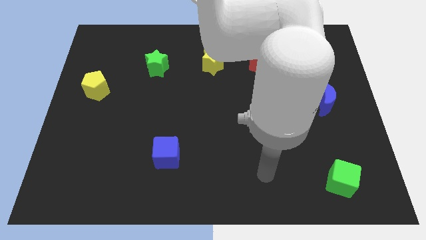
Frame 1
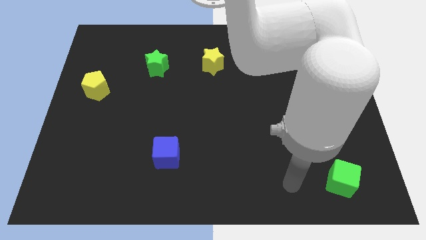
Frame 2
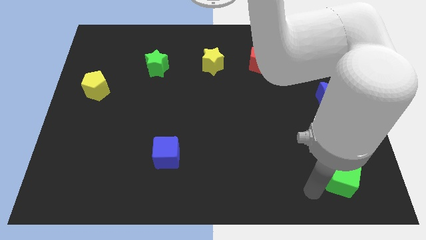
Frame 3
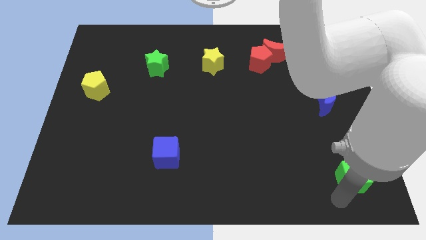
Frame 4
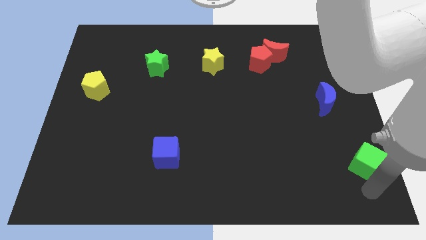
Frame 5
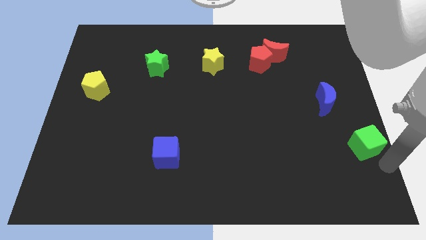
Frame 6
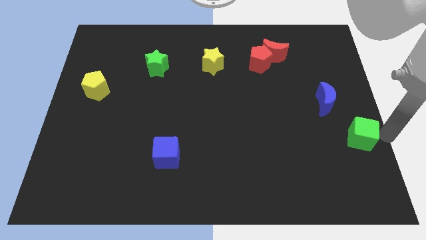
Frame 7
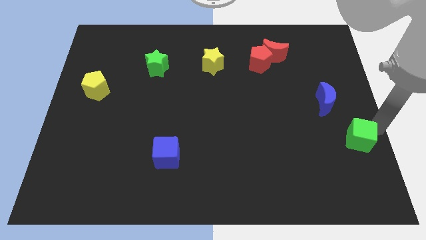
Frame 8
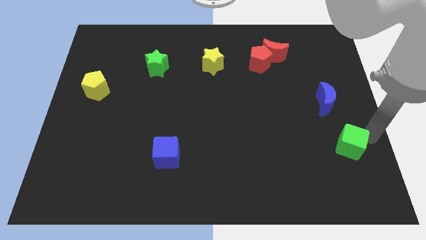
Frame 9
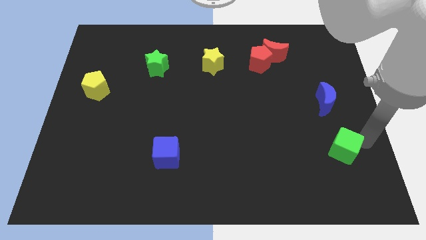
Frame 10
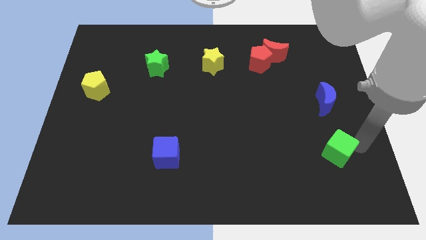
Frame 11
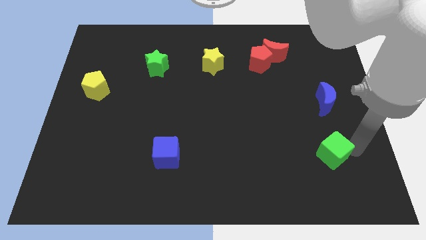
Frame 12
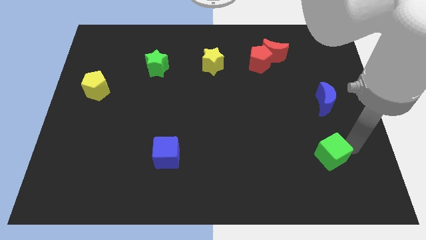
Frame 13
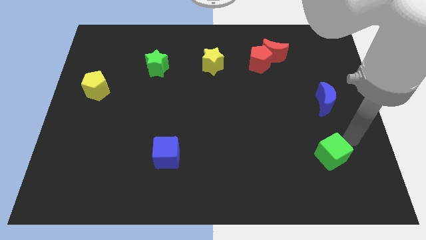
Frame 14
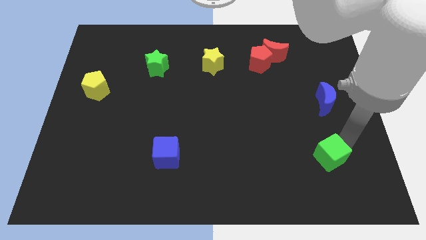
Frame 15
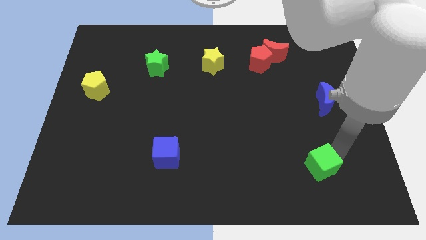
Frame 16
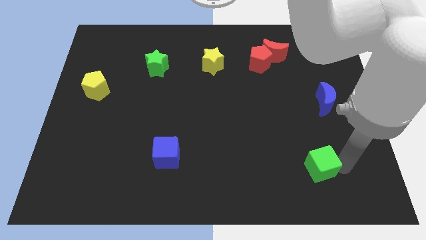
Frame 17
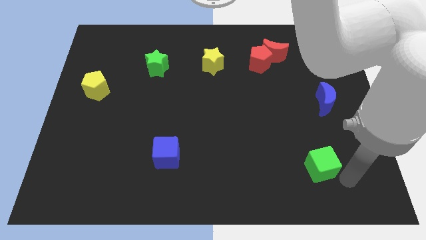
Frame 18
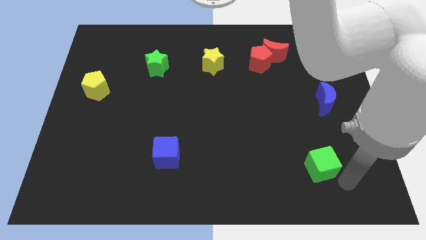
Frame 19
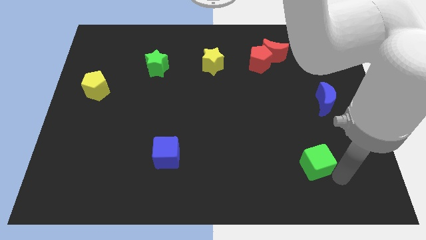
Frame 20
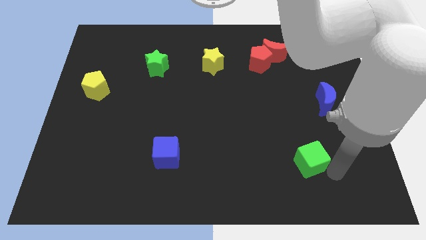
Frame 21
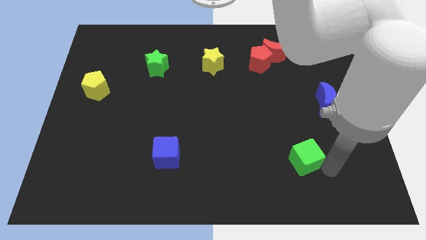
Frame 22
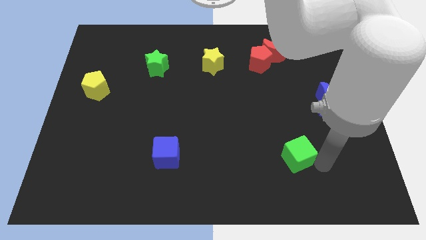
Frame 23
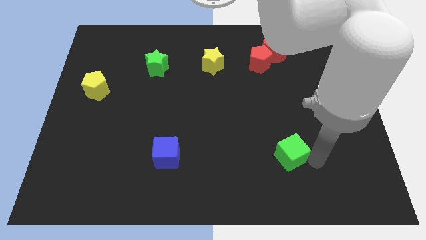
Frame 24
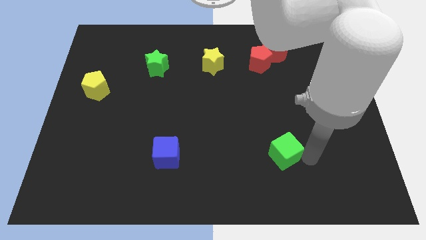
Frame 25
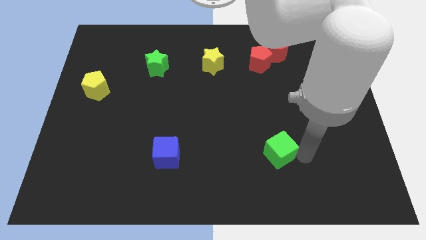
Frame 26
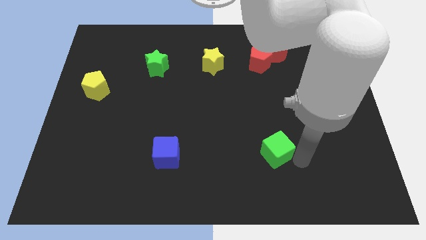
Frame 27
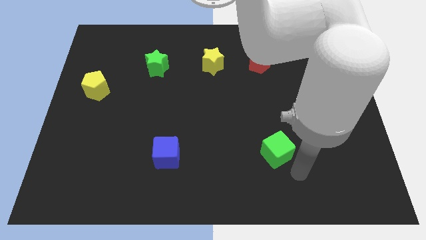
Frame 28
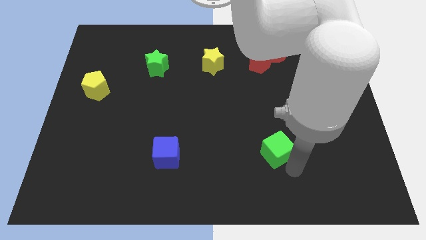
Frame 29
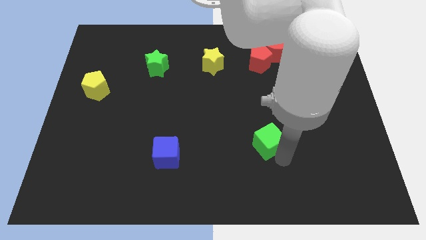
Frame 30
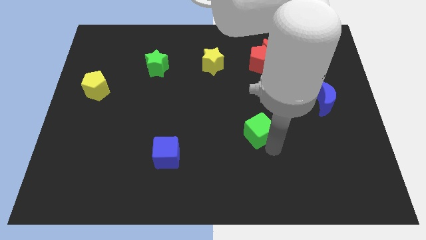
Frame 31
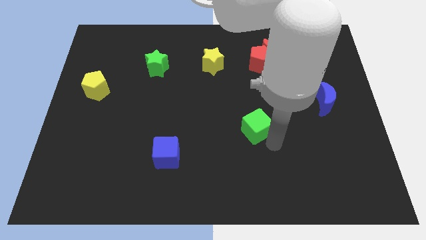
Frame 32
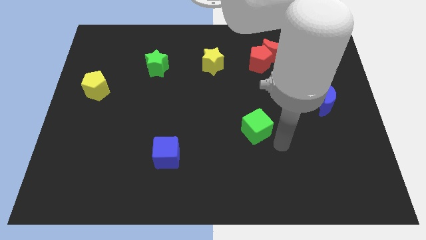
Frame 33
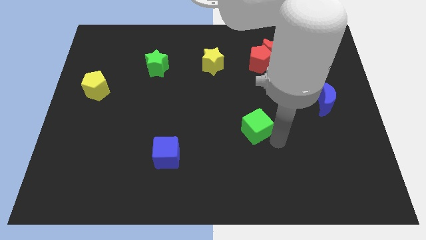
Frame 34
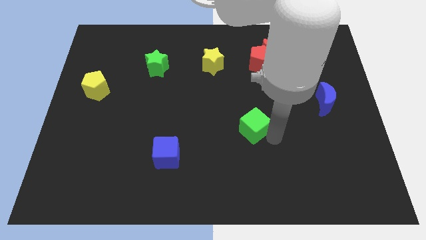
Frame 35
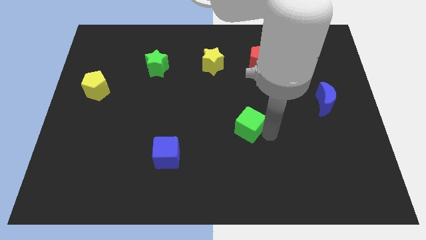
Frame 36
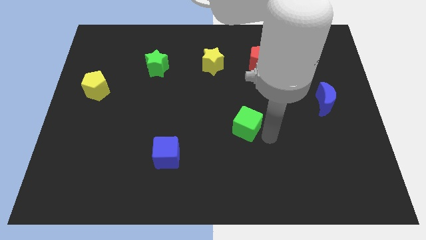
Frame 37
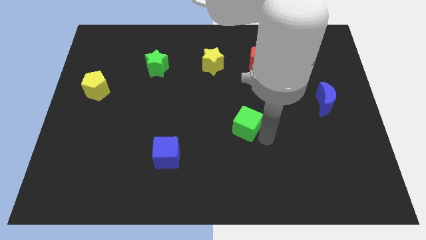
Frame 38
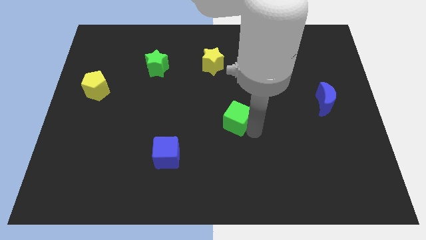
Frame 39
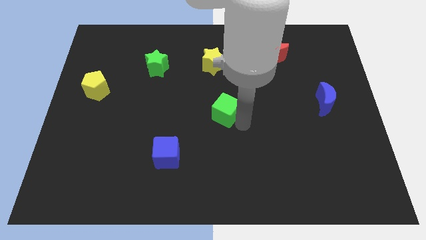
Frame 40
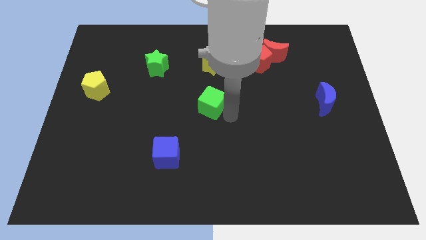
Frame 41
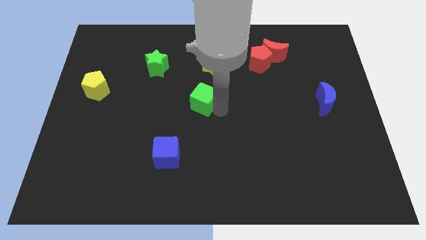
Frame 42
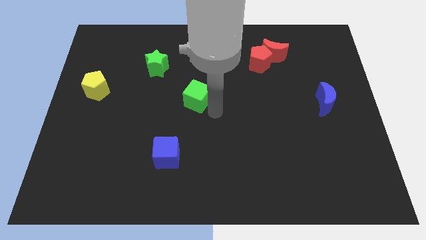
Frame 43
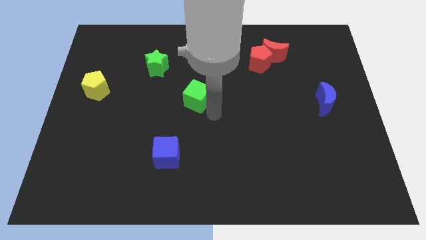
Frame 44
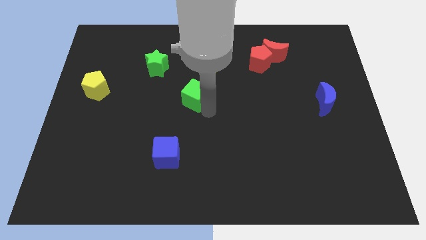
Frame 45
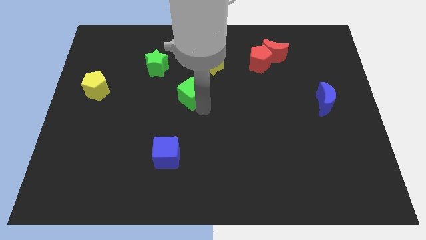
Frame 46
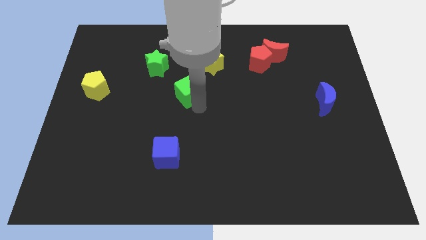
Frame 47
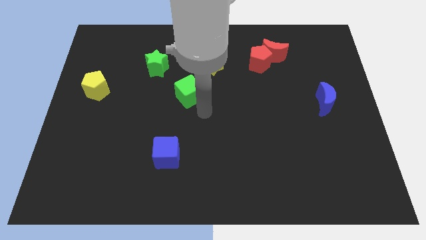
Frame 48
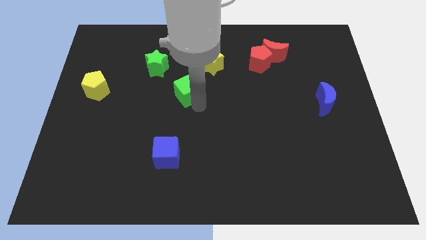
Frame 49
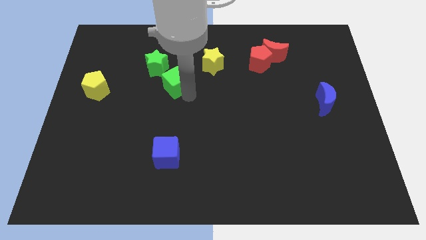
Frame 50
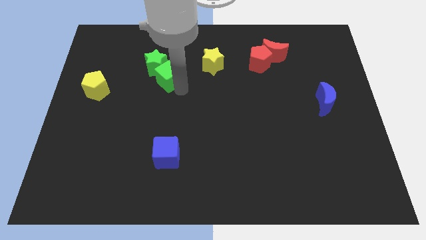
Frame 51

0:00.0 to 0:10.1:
slide the green cube close to the green star

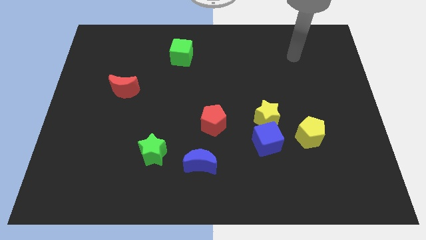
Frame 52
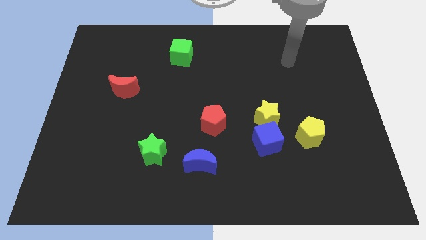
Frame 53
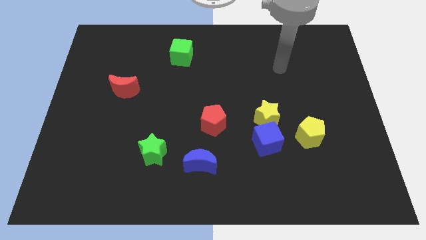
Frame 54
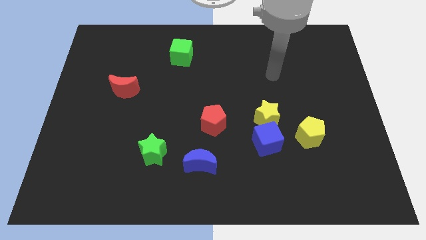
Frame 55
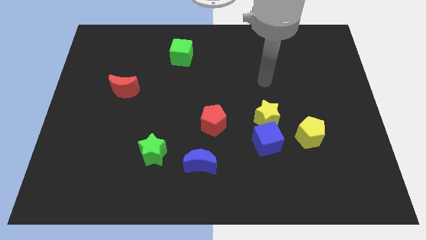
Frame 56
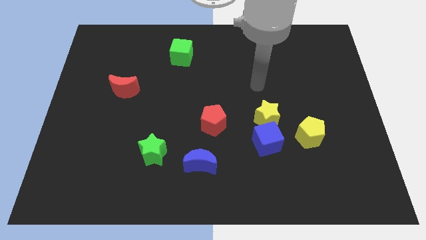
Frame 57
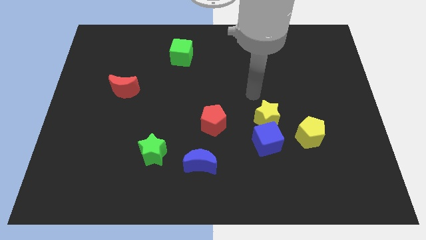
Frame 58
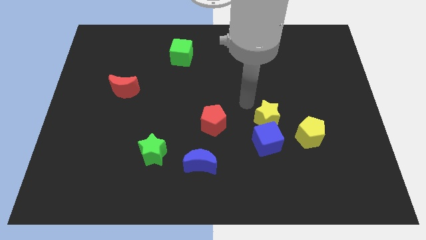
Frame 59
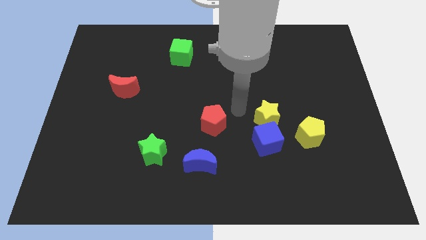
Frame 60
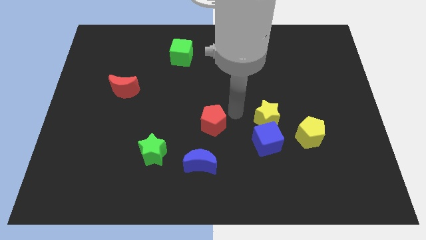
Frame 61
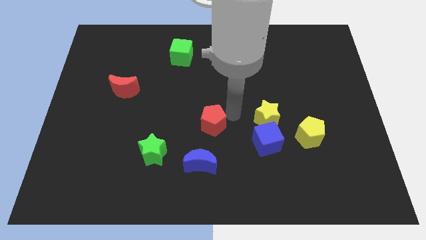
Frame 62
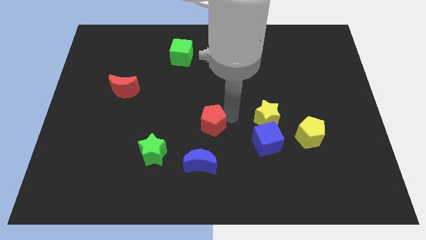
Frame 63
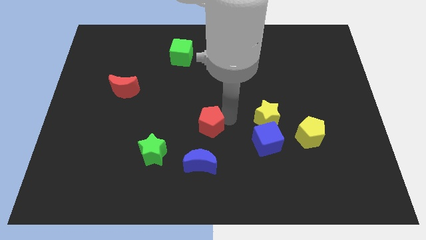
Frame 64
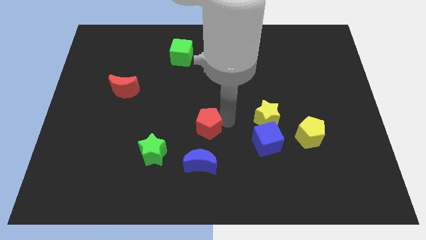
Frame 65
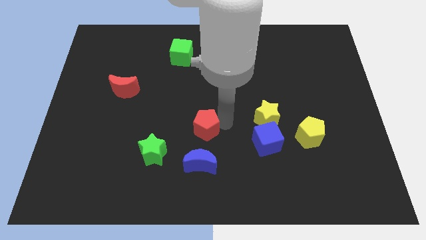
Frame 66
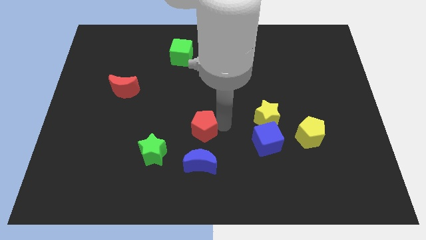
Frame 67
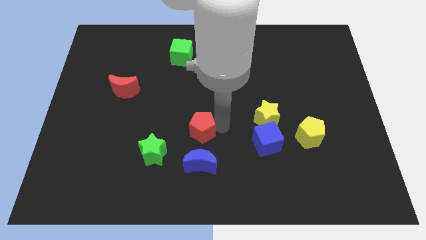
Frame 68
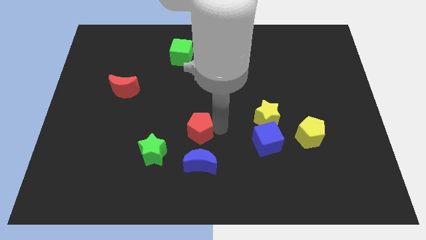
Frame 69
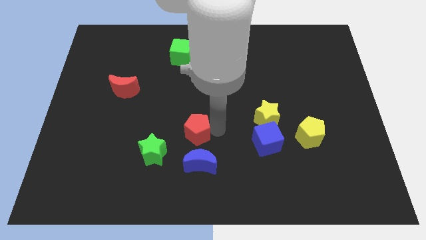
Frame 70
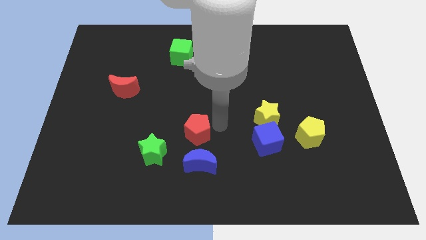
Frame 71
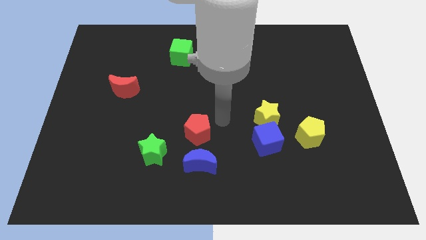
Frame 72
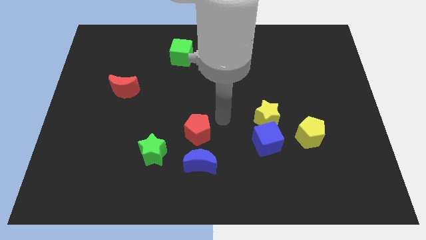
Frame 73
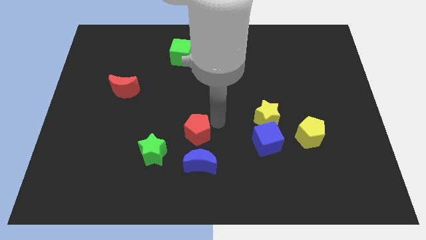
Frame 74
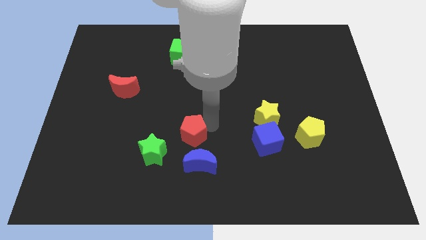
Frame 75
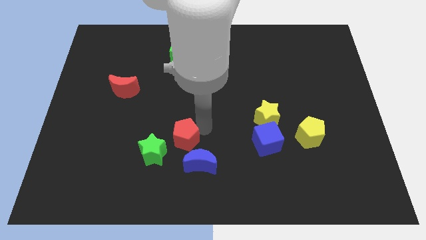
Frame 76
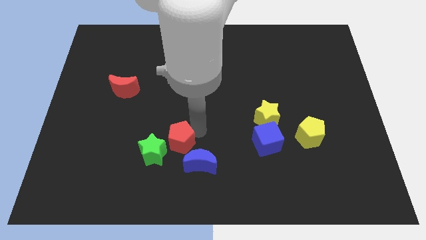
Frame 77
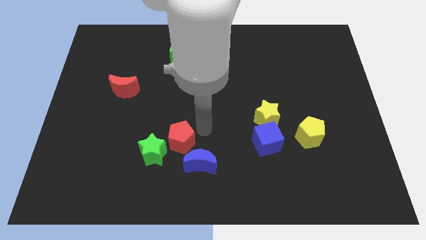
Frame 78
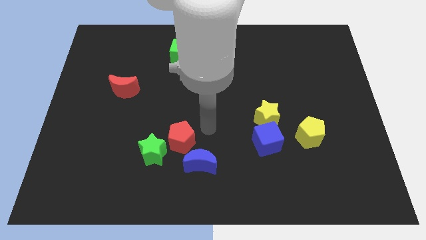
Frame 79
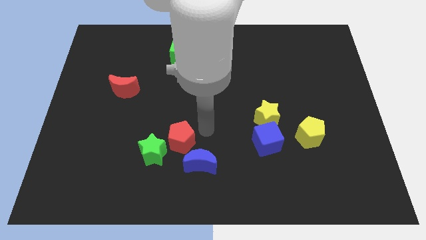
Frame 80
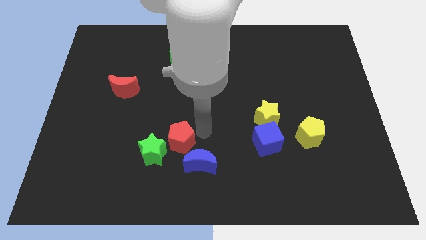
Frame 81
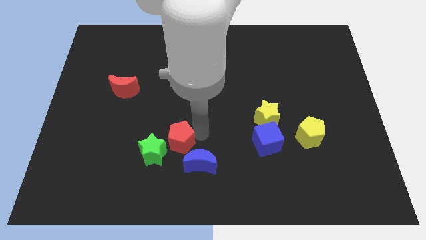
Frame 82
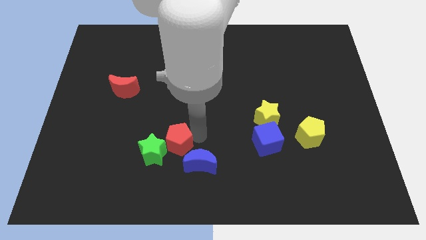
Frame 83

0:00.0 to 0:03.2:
slide the red pentagon to the green star
